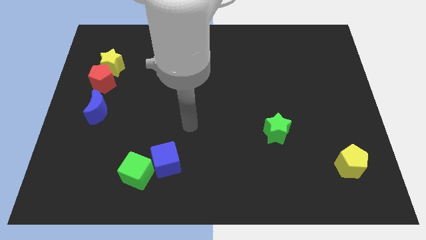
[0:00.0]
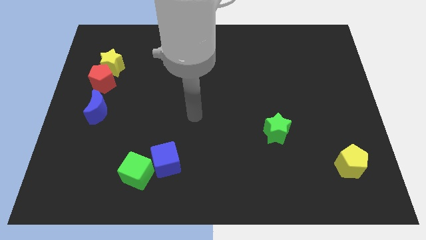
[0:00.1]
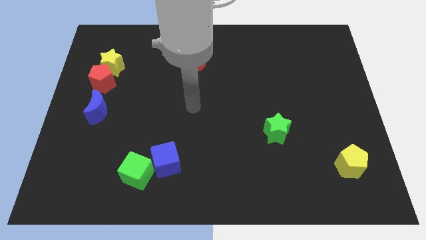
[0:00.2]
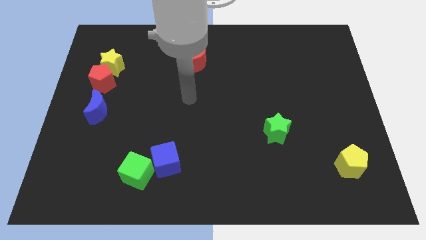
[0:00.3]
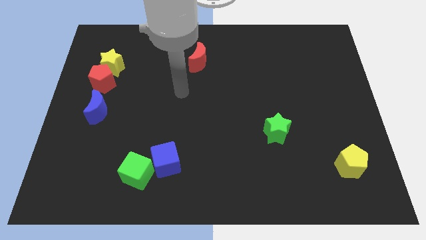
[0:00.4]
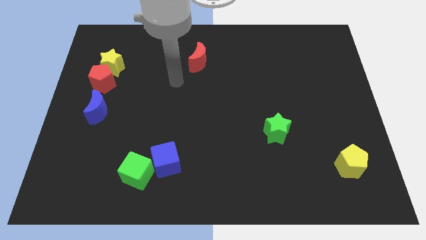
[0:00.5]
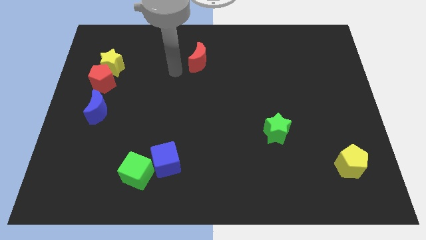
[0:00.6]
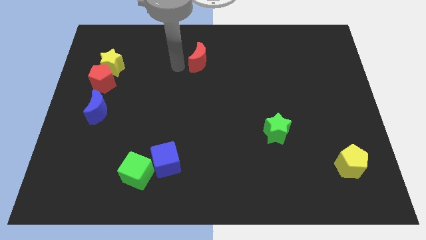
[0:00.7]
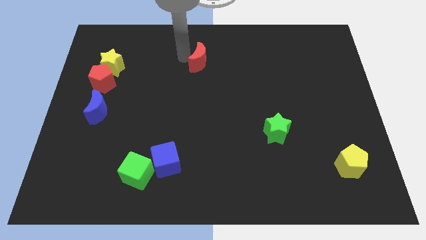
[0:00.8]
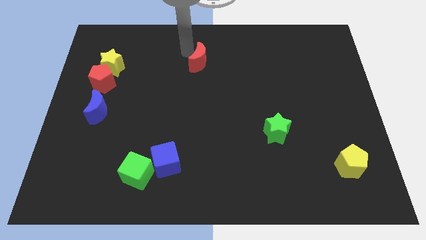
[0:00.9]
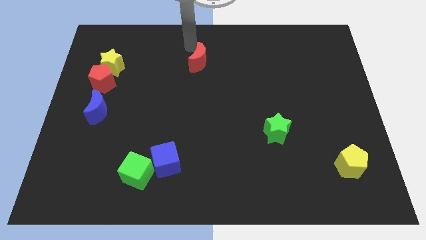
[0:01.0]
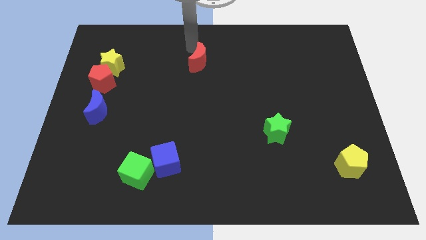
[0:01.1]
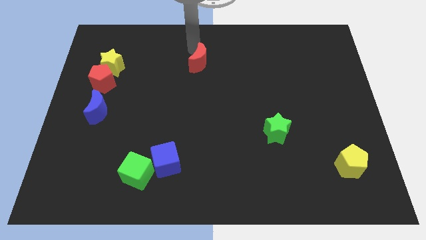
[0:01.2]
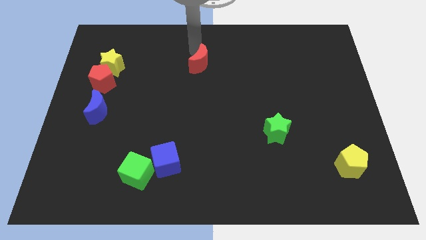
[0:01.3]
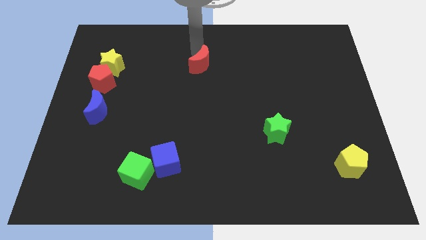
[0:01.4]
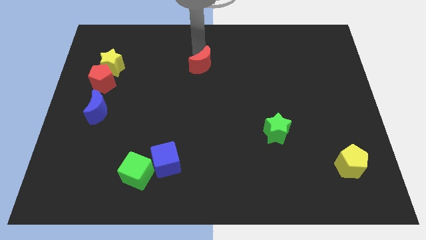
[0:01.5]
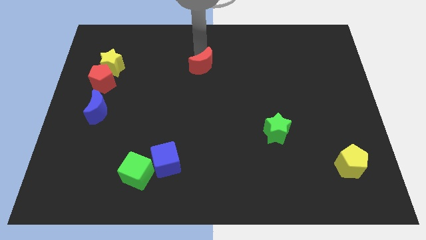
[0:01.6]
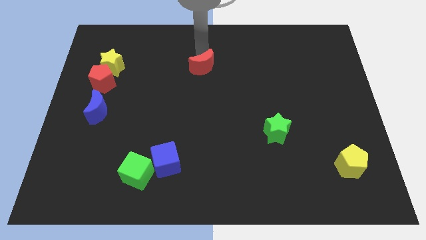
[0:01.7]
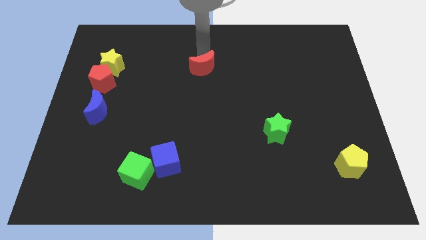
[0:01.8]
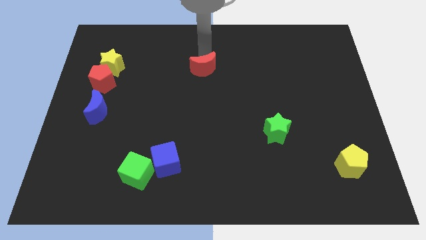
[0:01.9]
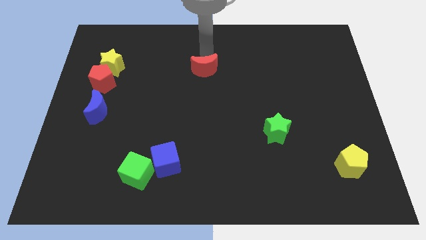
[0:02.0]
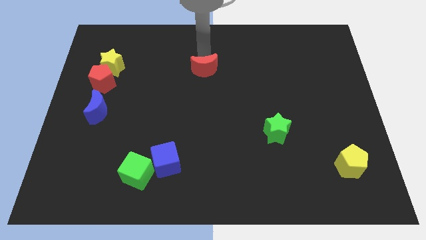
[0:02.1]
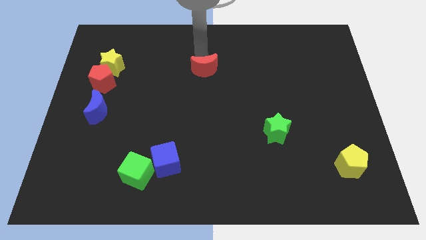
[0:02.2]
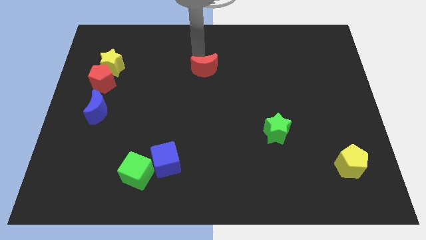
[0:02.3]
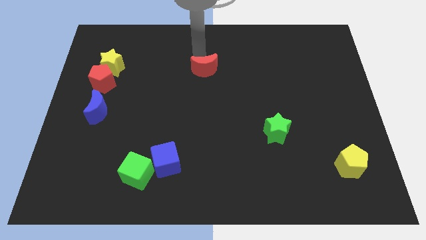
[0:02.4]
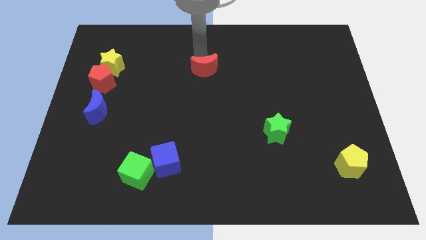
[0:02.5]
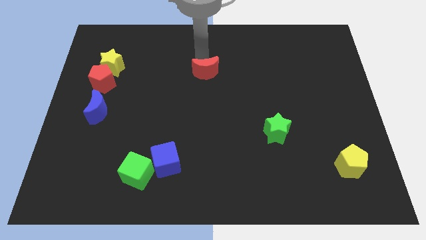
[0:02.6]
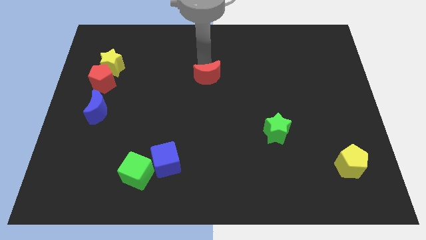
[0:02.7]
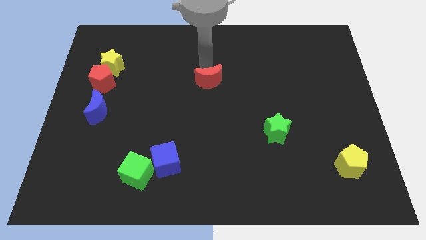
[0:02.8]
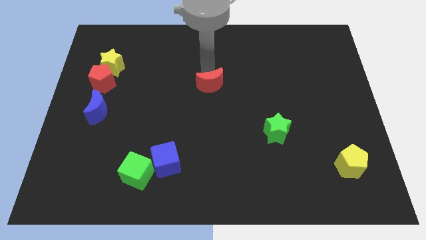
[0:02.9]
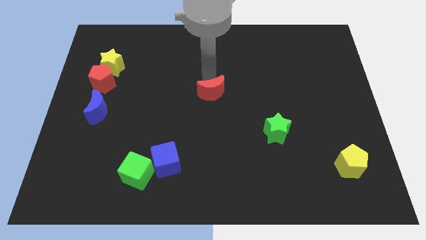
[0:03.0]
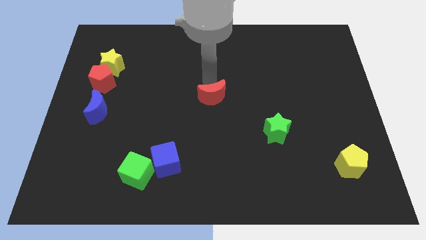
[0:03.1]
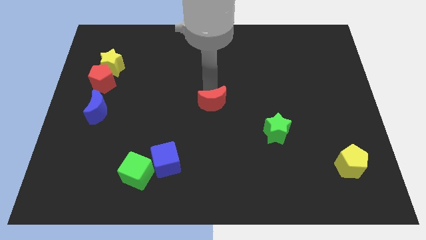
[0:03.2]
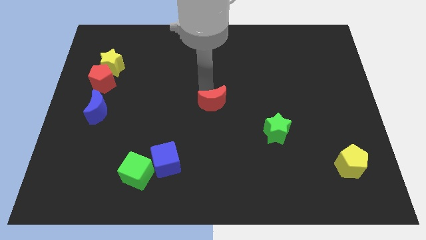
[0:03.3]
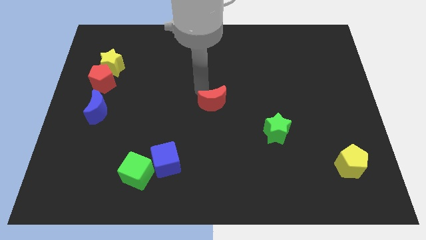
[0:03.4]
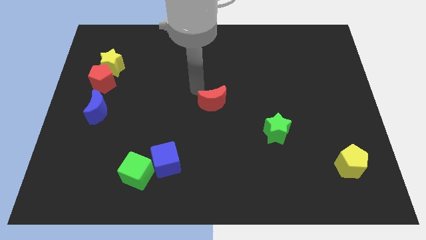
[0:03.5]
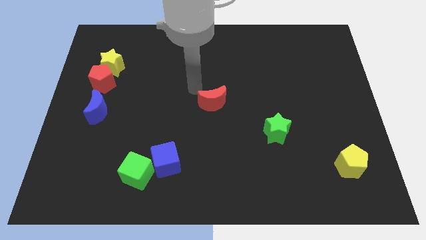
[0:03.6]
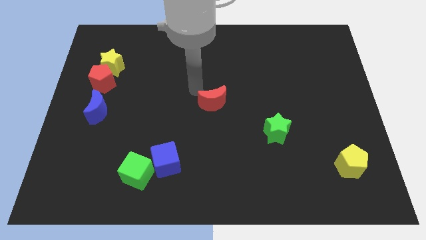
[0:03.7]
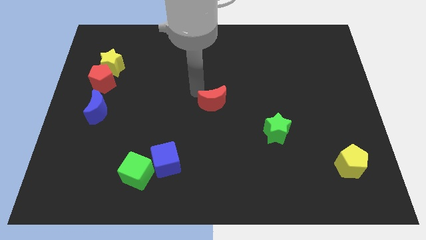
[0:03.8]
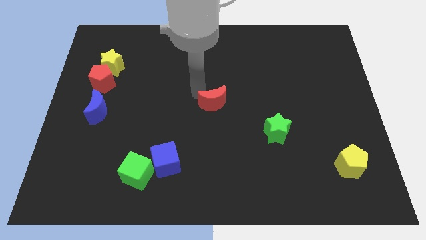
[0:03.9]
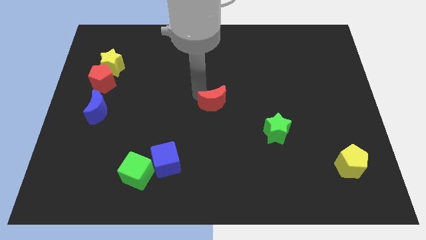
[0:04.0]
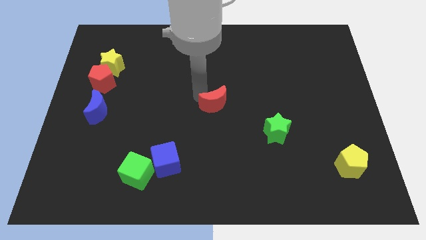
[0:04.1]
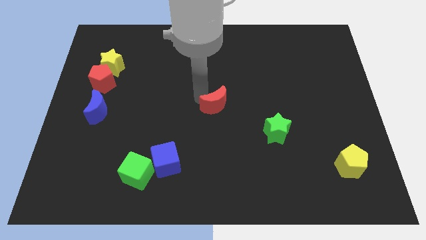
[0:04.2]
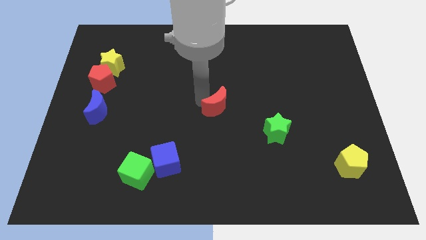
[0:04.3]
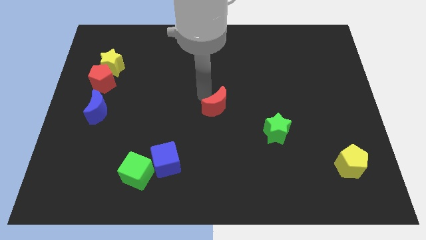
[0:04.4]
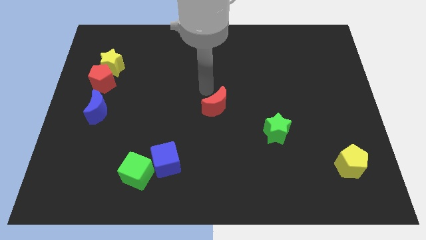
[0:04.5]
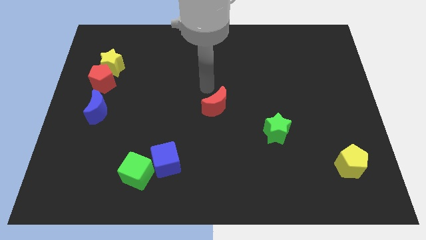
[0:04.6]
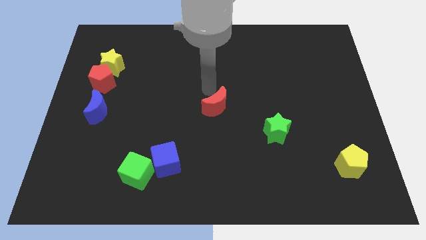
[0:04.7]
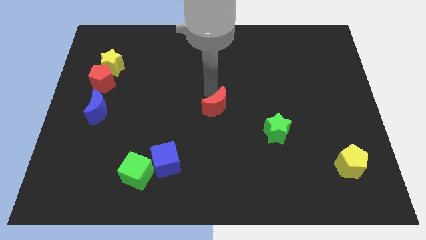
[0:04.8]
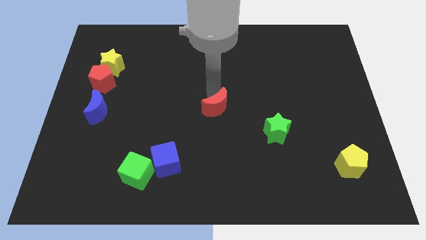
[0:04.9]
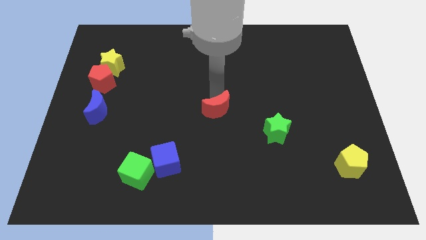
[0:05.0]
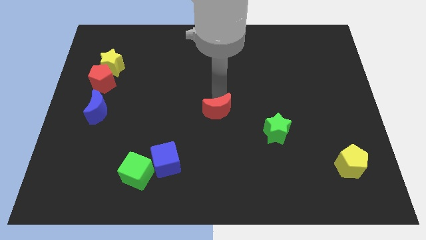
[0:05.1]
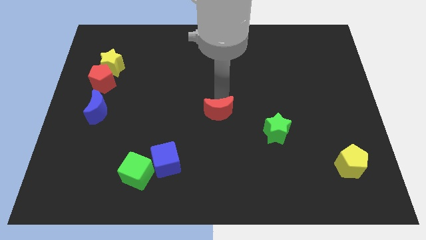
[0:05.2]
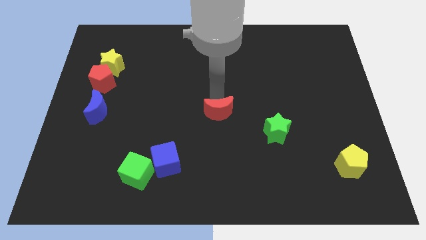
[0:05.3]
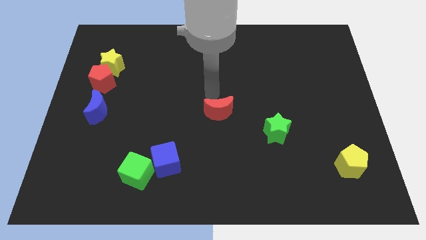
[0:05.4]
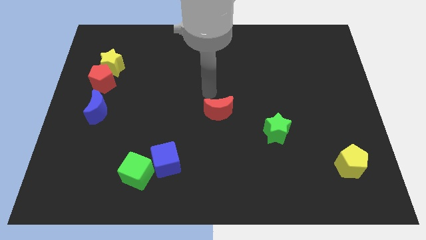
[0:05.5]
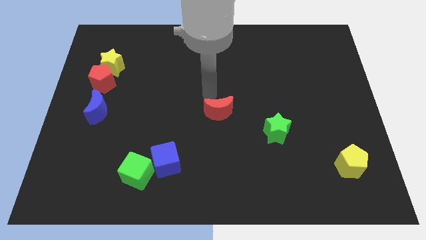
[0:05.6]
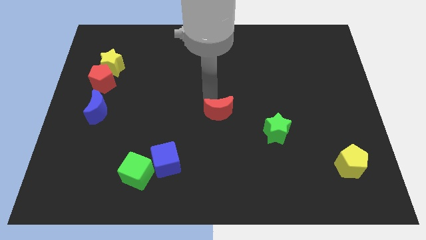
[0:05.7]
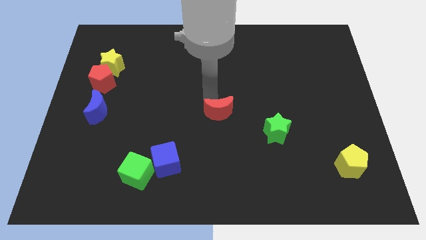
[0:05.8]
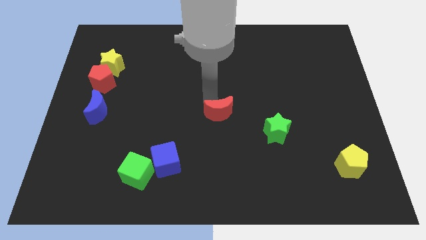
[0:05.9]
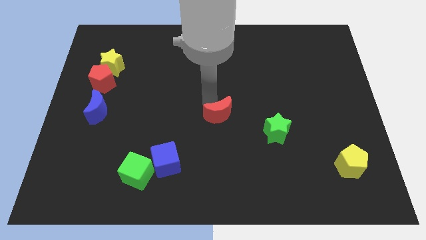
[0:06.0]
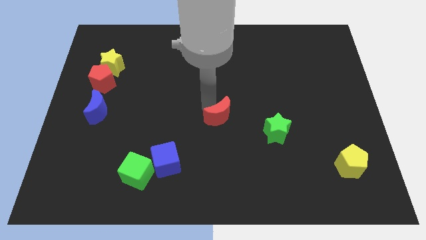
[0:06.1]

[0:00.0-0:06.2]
slide the red moon to the left side of the green star

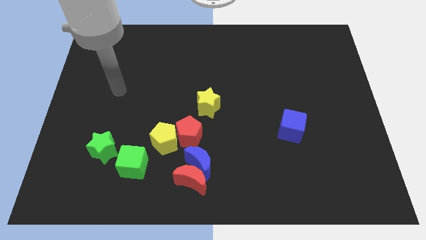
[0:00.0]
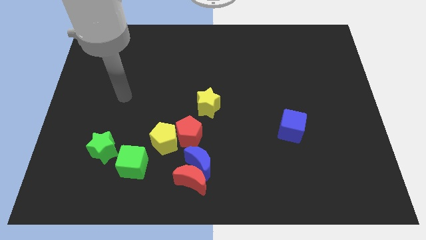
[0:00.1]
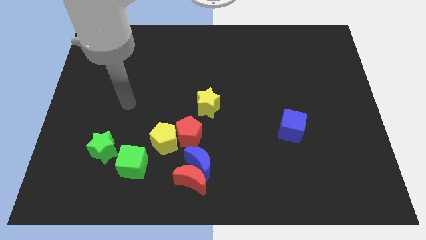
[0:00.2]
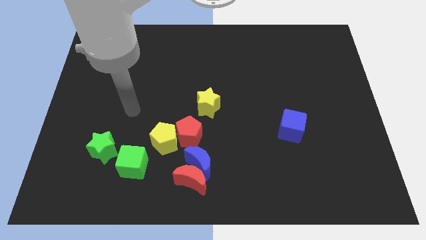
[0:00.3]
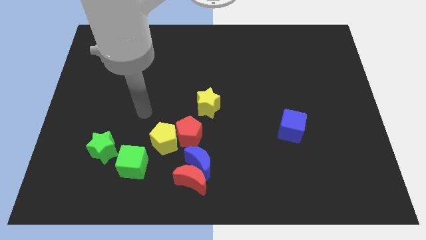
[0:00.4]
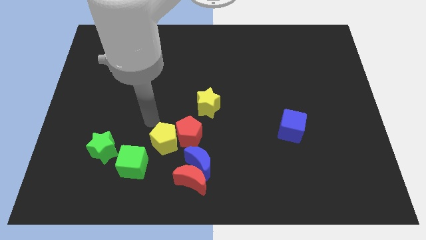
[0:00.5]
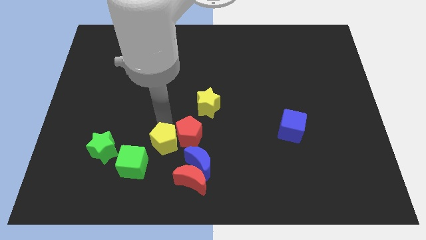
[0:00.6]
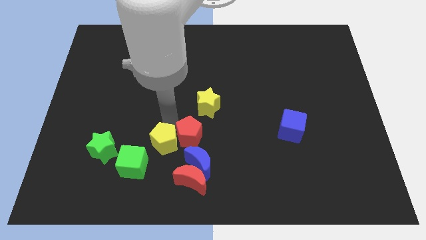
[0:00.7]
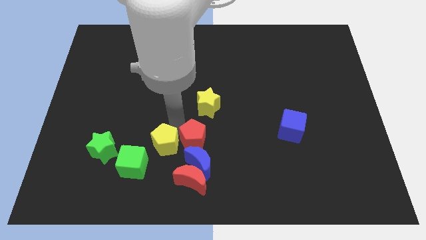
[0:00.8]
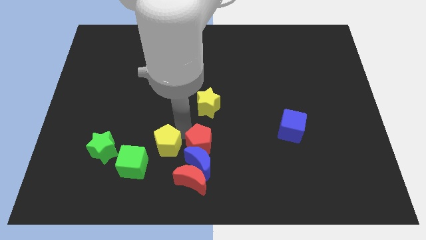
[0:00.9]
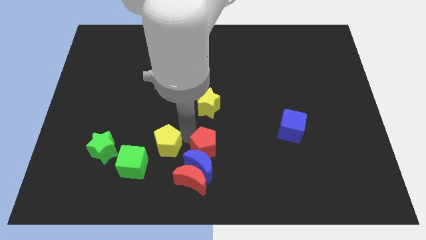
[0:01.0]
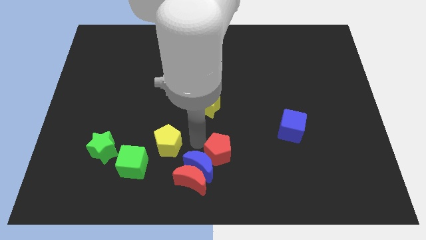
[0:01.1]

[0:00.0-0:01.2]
move the red pentagon to the right of the blue moon
